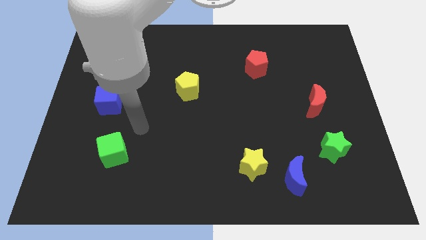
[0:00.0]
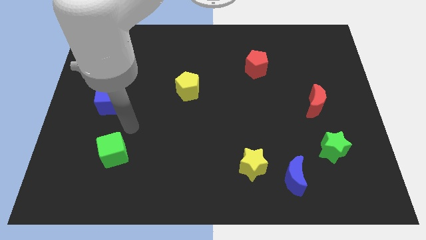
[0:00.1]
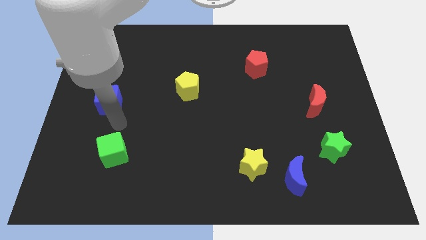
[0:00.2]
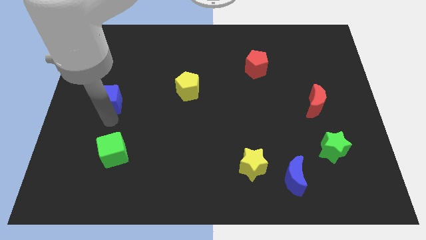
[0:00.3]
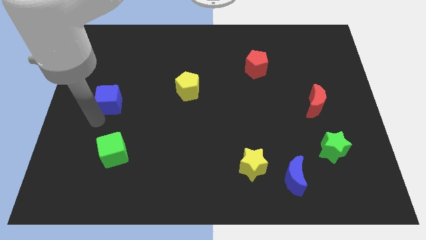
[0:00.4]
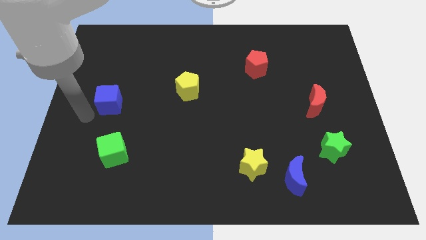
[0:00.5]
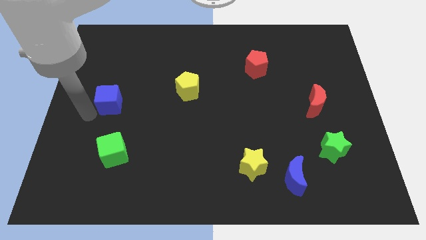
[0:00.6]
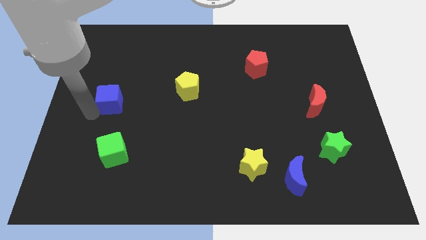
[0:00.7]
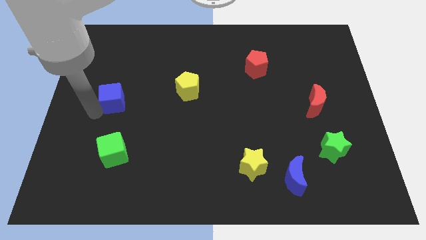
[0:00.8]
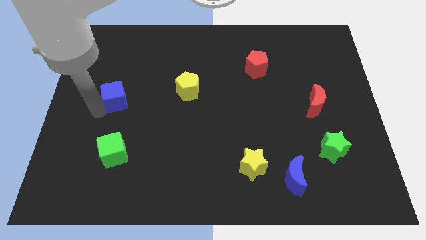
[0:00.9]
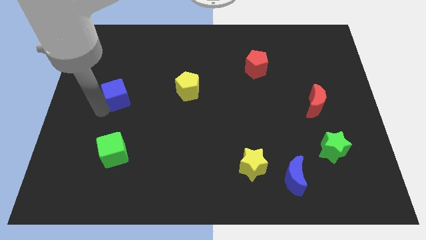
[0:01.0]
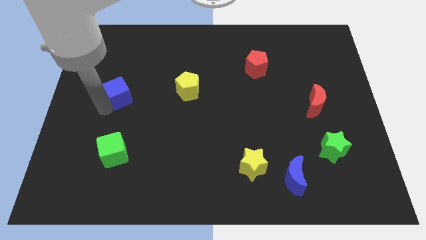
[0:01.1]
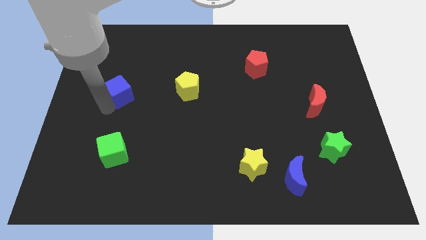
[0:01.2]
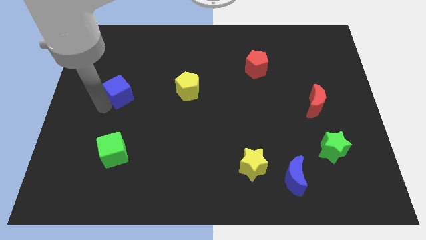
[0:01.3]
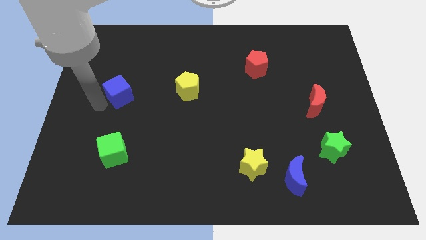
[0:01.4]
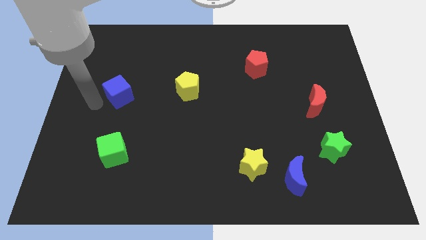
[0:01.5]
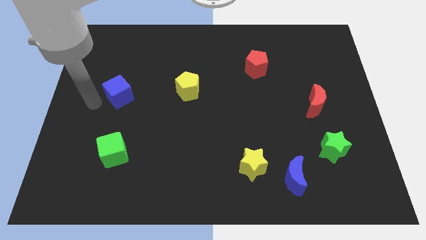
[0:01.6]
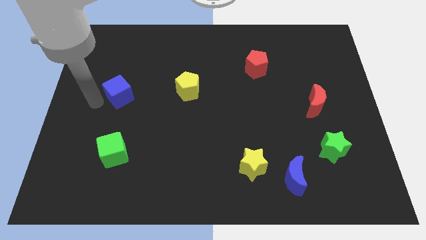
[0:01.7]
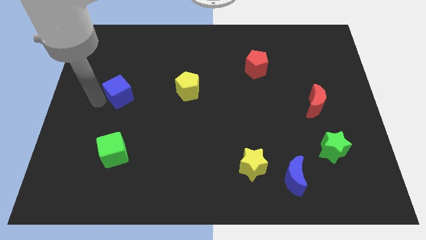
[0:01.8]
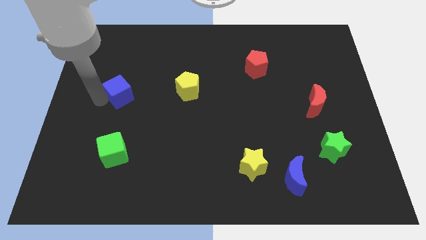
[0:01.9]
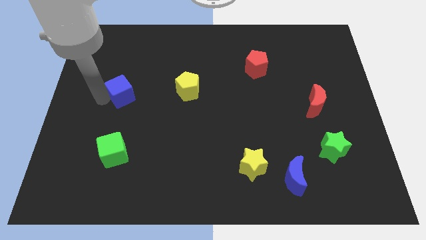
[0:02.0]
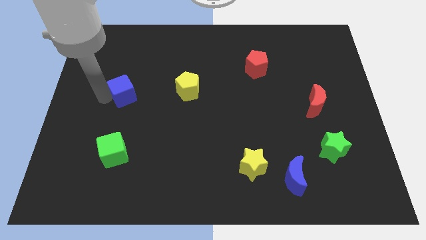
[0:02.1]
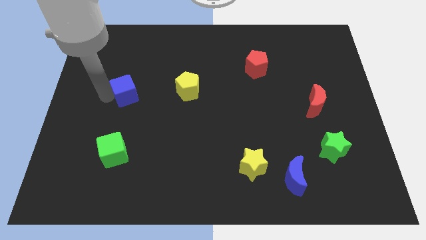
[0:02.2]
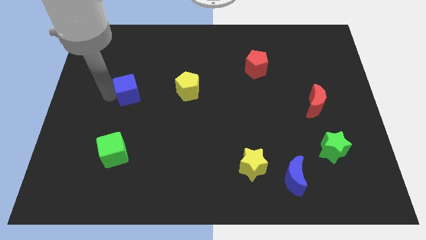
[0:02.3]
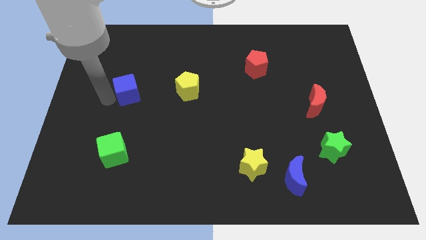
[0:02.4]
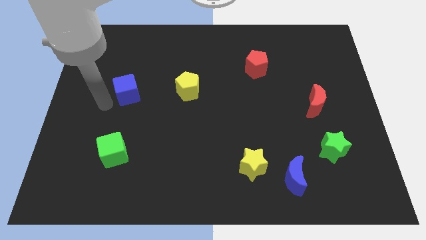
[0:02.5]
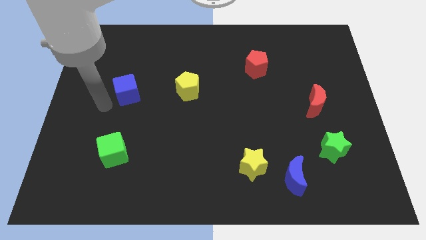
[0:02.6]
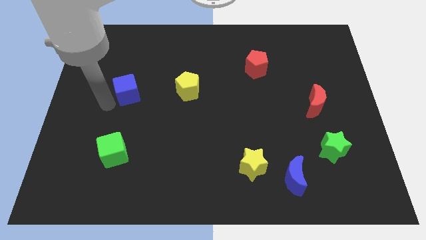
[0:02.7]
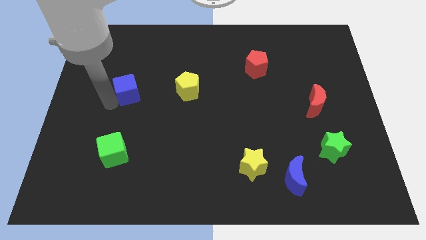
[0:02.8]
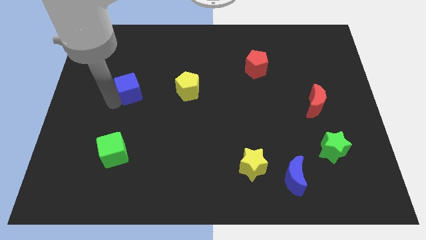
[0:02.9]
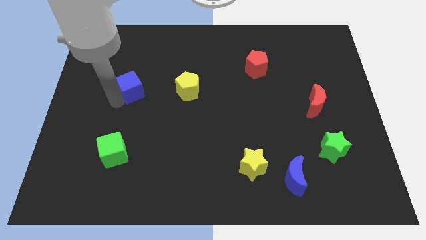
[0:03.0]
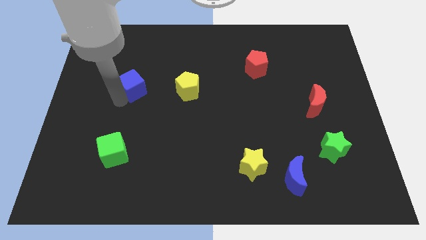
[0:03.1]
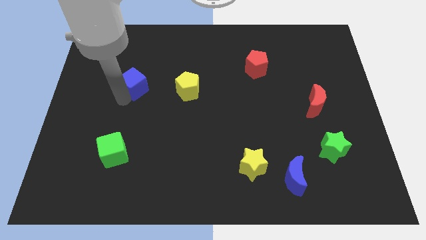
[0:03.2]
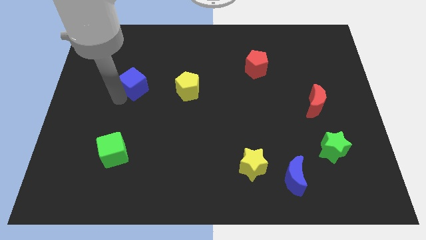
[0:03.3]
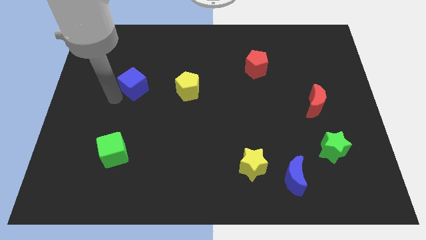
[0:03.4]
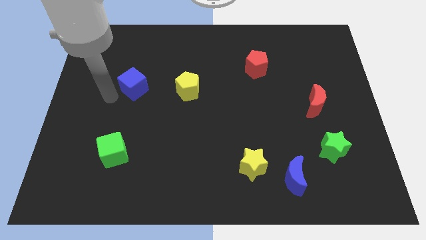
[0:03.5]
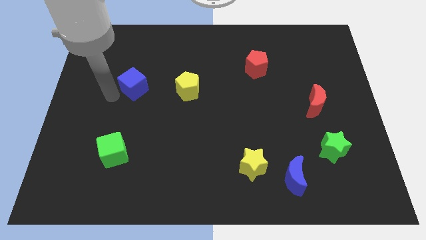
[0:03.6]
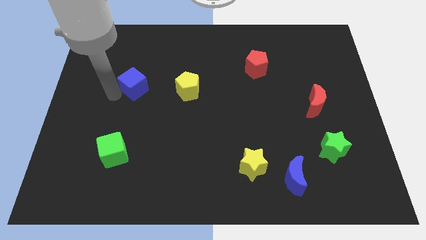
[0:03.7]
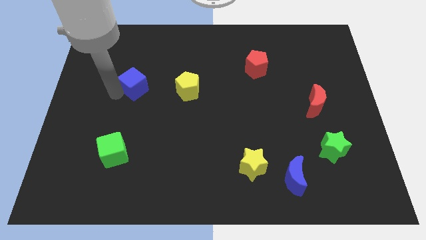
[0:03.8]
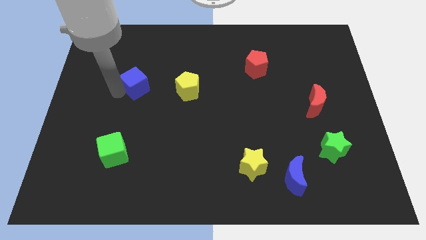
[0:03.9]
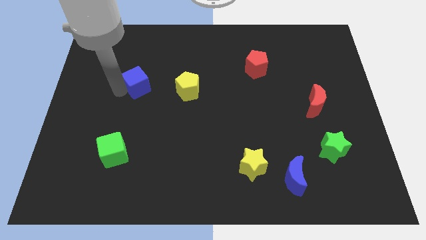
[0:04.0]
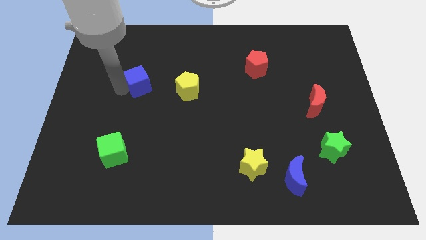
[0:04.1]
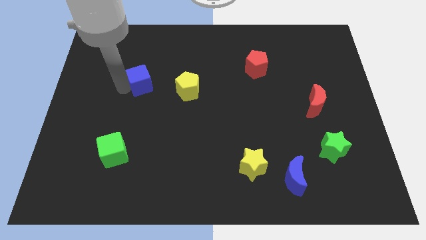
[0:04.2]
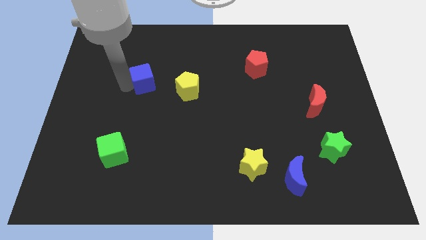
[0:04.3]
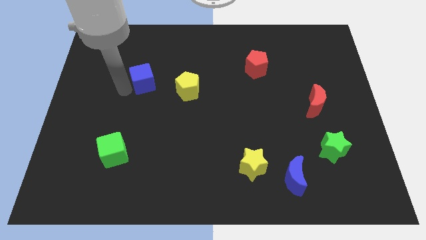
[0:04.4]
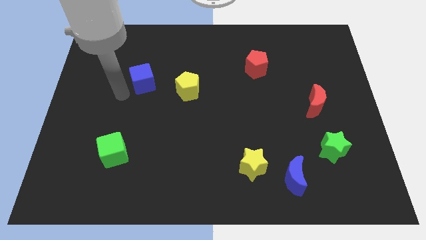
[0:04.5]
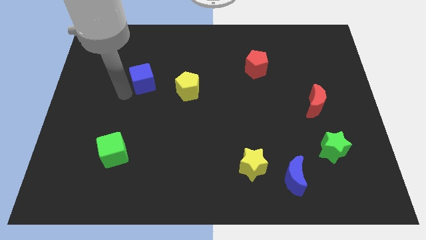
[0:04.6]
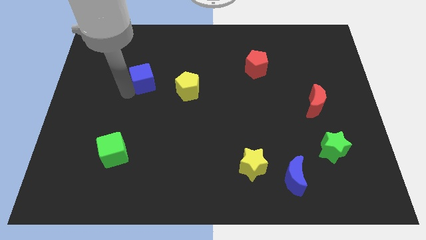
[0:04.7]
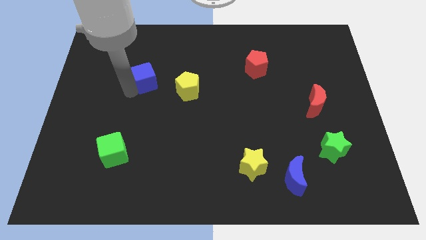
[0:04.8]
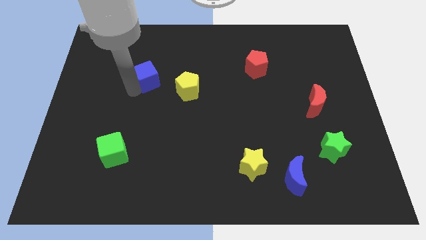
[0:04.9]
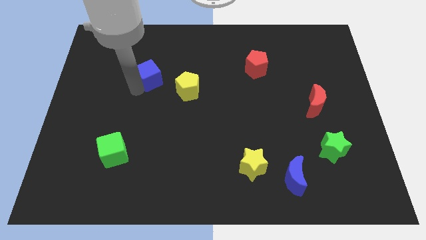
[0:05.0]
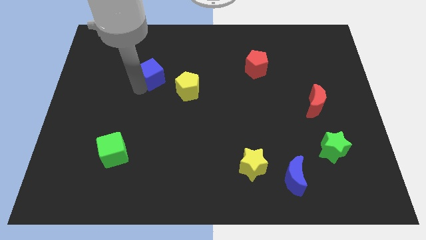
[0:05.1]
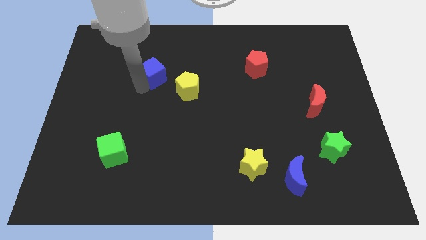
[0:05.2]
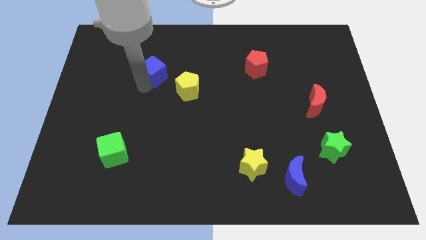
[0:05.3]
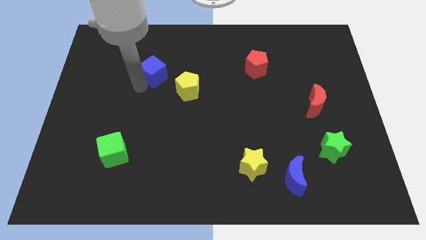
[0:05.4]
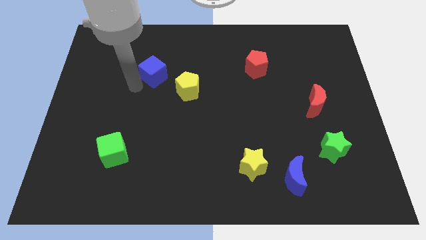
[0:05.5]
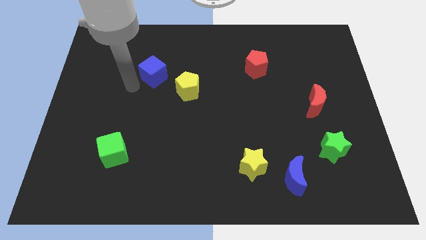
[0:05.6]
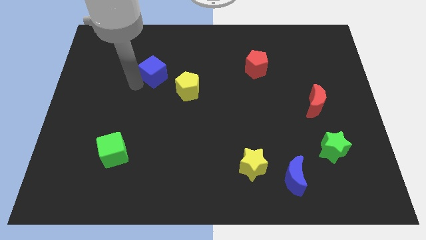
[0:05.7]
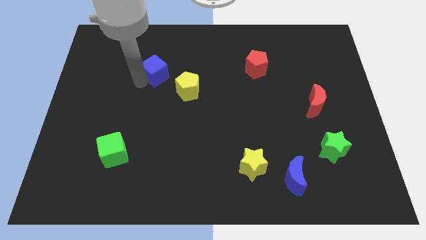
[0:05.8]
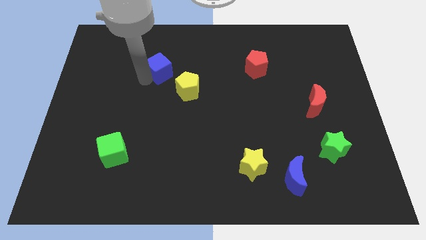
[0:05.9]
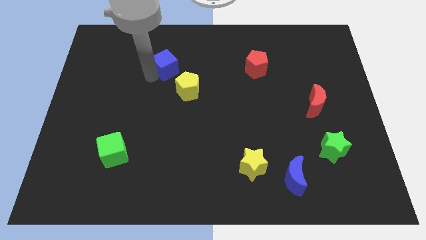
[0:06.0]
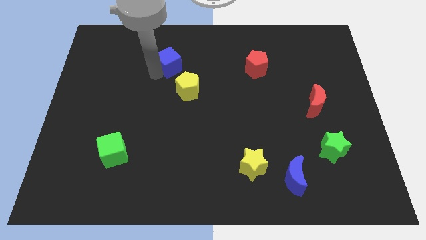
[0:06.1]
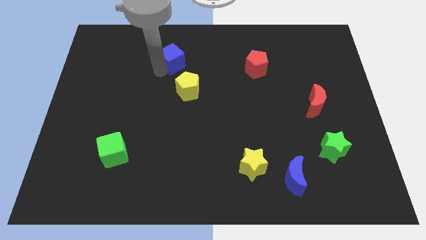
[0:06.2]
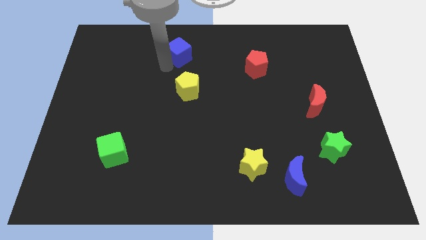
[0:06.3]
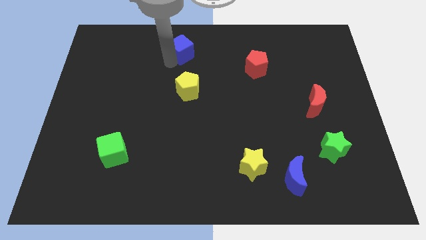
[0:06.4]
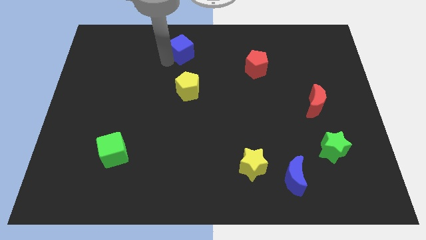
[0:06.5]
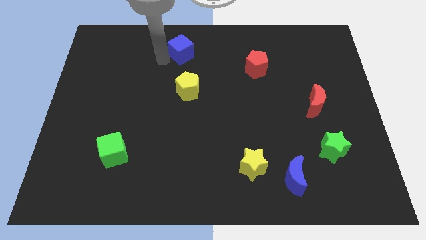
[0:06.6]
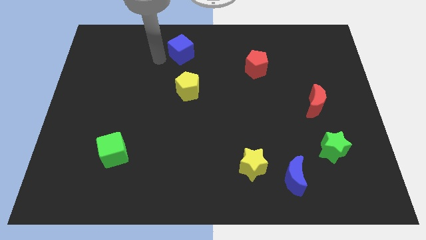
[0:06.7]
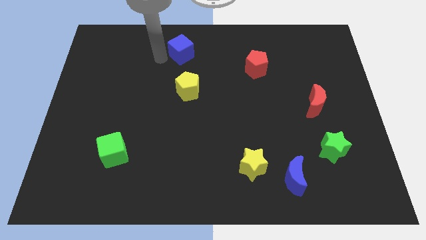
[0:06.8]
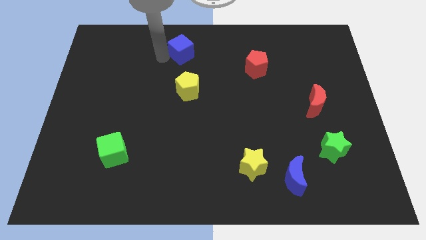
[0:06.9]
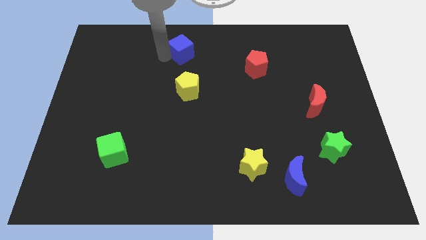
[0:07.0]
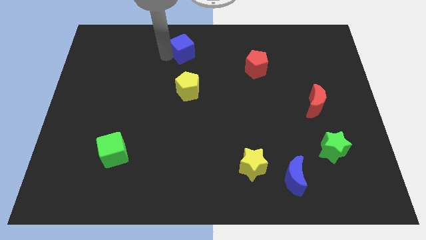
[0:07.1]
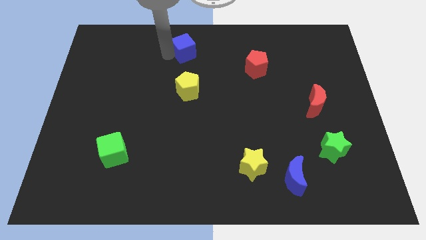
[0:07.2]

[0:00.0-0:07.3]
put the blue cube to the towards your base

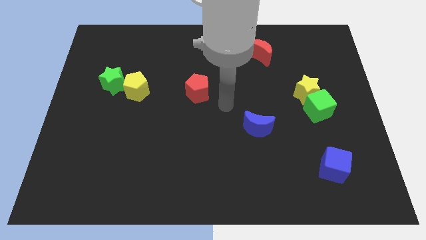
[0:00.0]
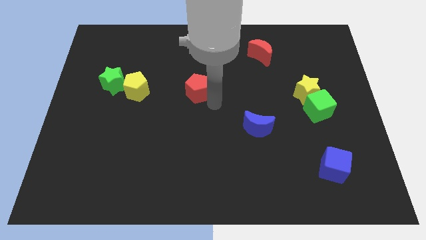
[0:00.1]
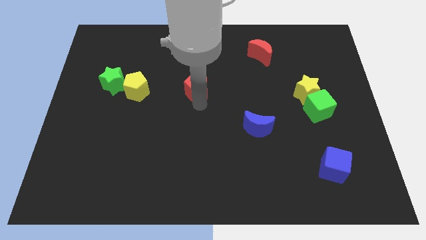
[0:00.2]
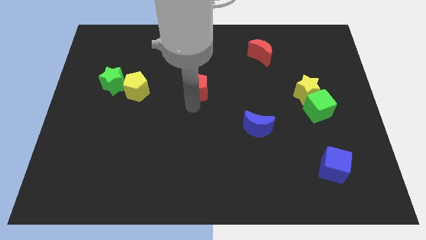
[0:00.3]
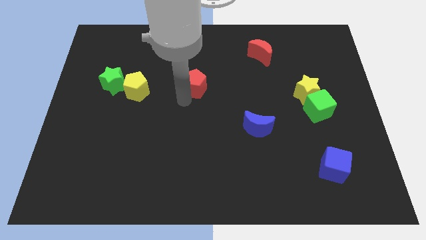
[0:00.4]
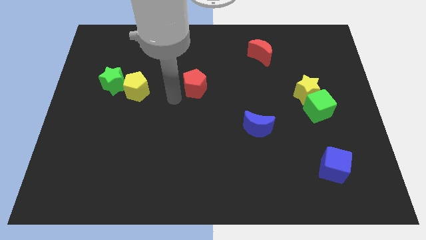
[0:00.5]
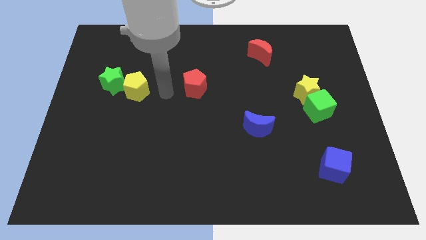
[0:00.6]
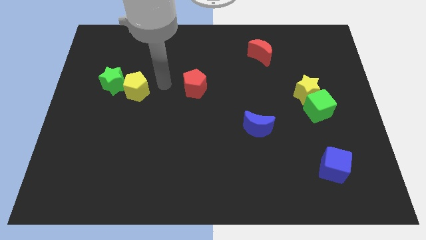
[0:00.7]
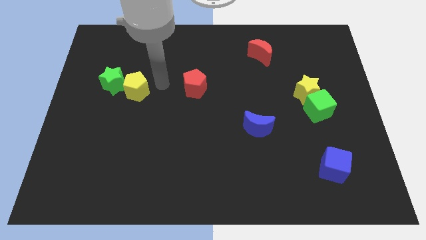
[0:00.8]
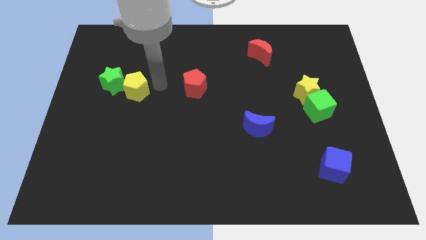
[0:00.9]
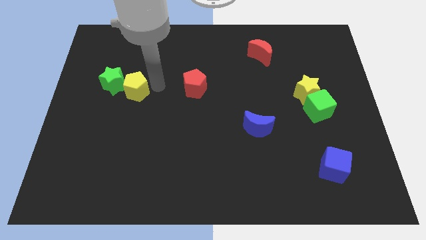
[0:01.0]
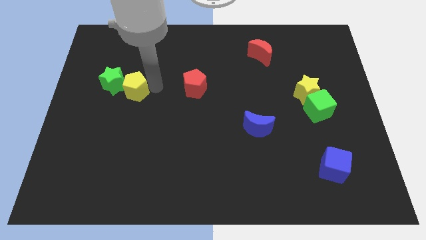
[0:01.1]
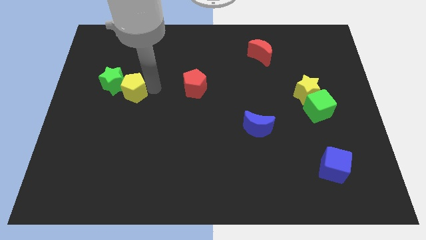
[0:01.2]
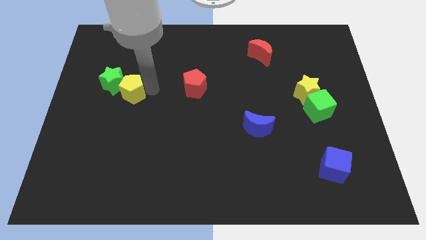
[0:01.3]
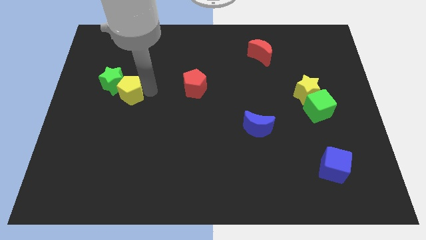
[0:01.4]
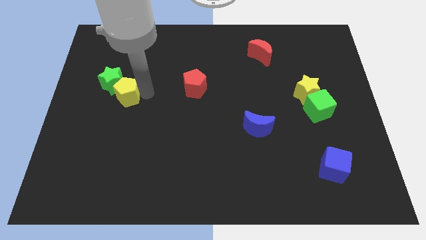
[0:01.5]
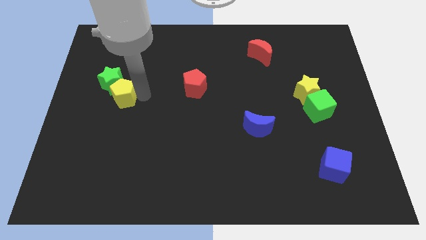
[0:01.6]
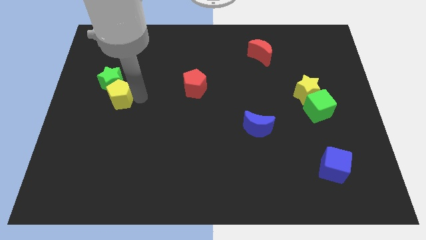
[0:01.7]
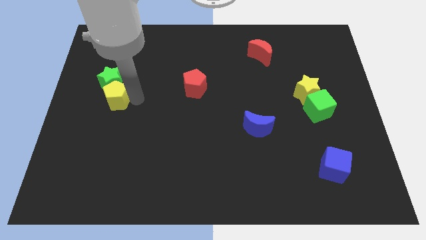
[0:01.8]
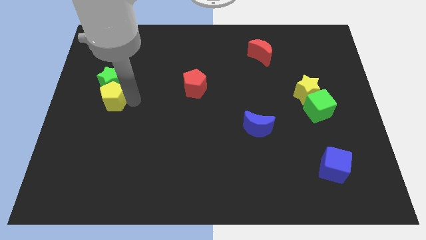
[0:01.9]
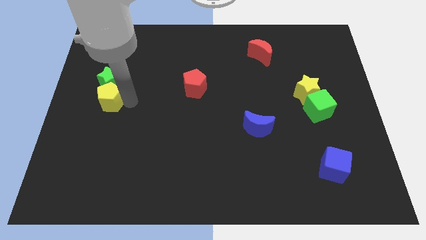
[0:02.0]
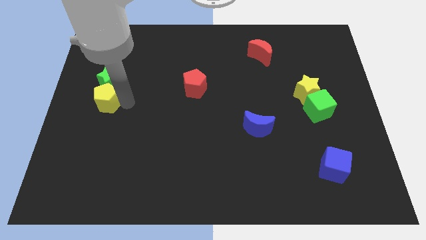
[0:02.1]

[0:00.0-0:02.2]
slide the yellow pentagon to the left side
